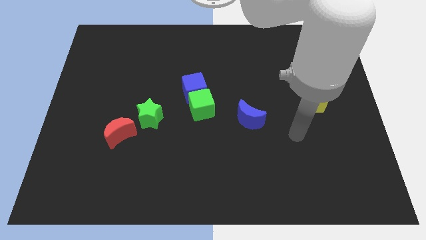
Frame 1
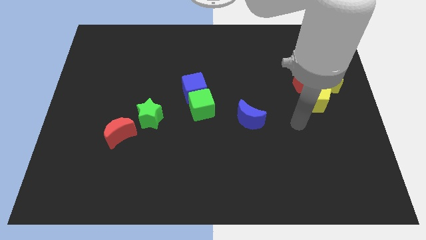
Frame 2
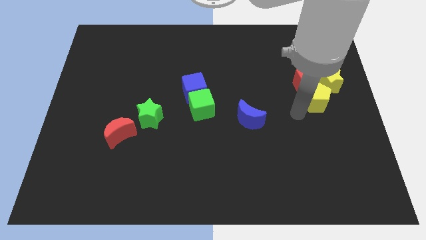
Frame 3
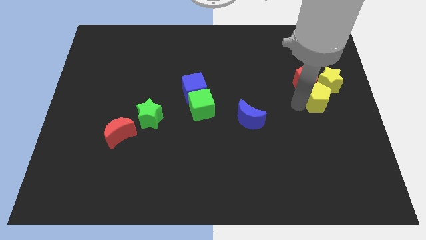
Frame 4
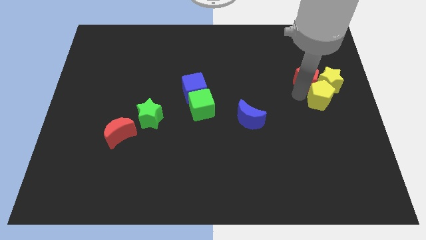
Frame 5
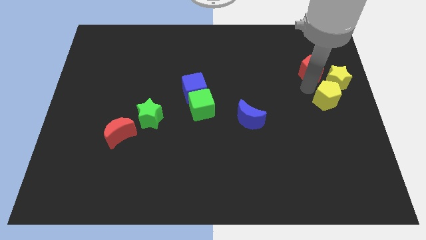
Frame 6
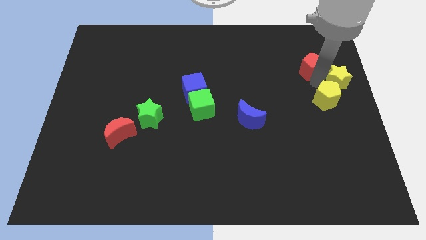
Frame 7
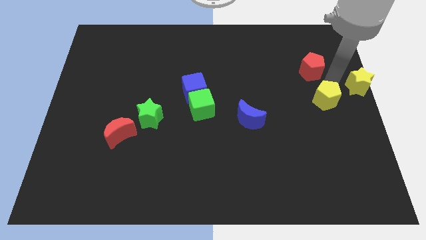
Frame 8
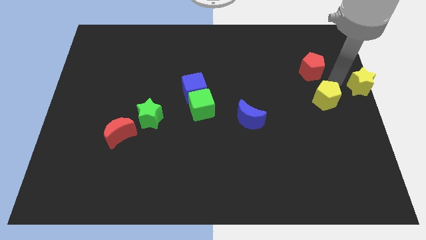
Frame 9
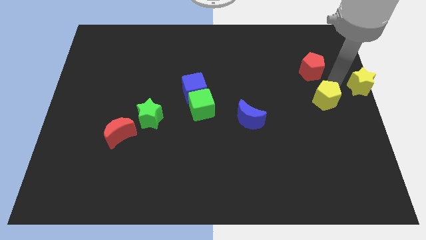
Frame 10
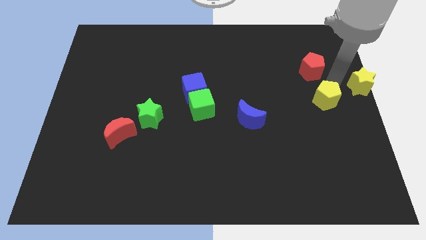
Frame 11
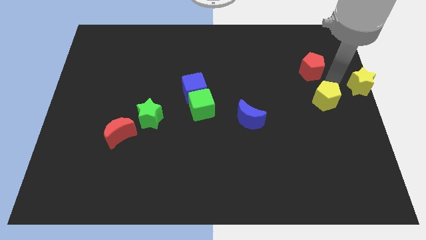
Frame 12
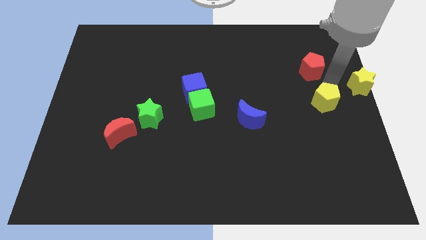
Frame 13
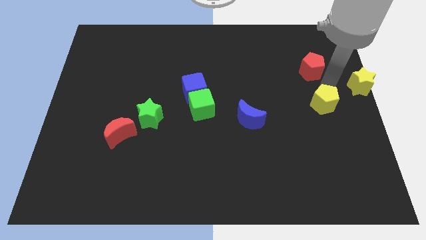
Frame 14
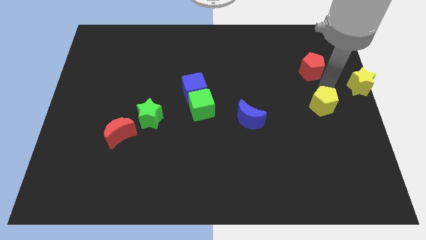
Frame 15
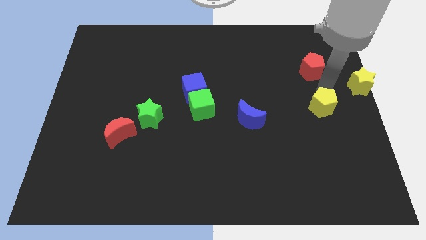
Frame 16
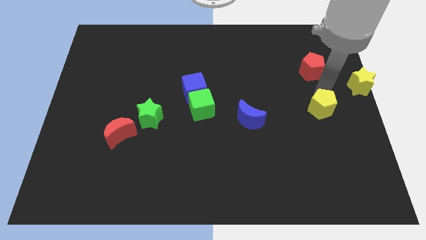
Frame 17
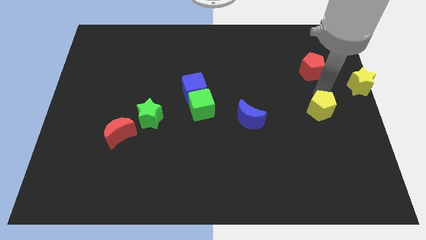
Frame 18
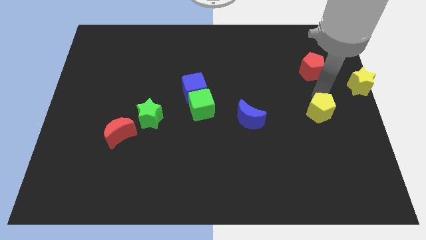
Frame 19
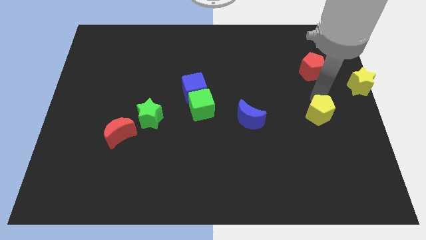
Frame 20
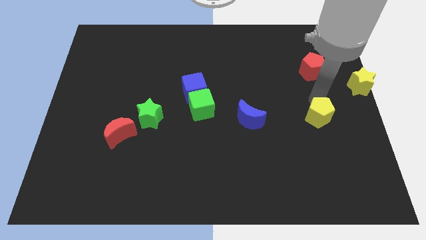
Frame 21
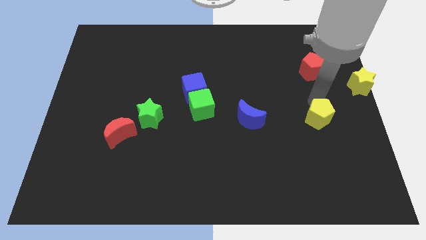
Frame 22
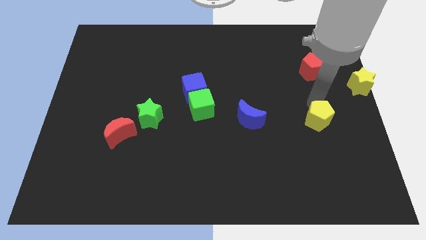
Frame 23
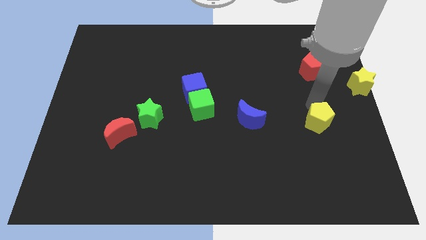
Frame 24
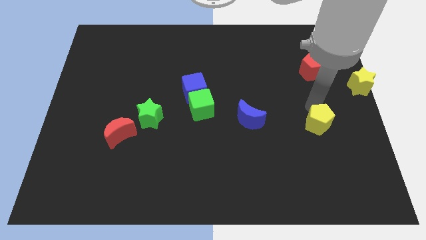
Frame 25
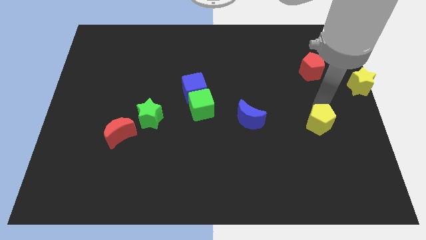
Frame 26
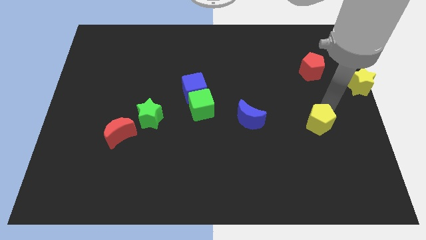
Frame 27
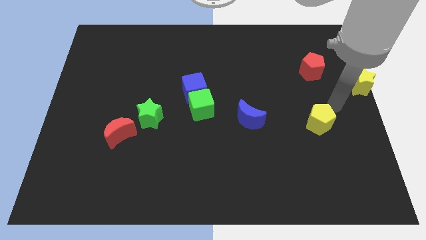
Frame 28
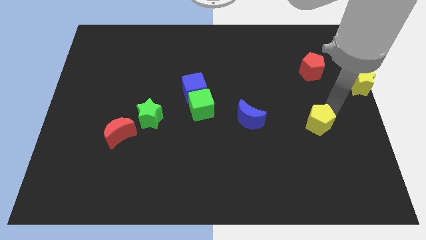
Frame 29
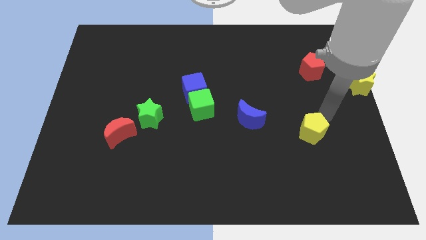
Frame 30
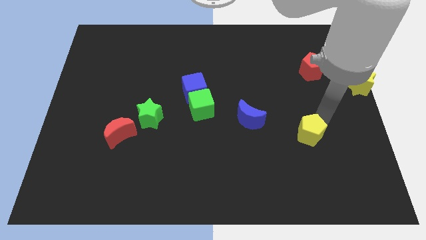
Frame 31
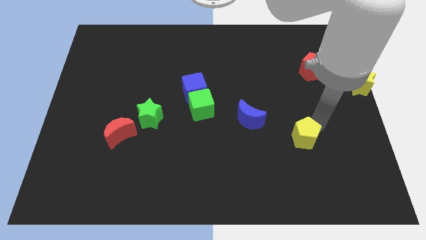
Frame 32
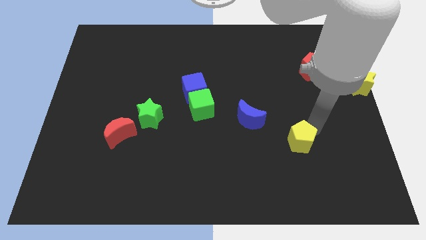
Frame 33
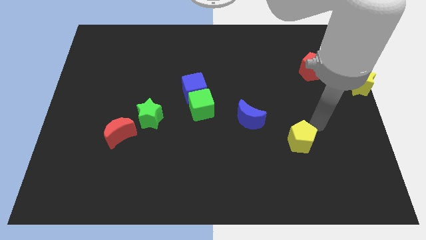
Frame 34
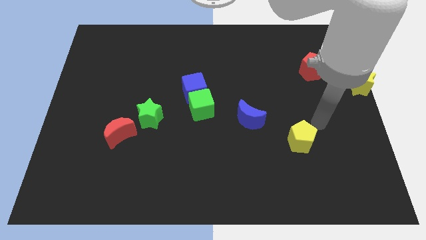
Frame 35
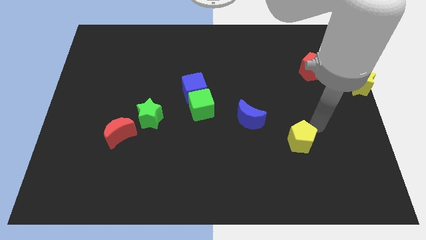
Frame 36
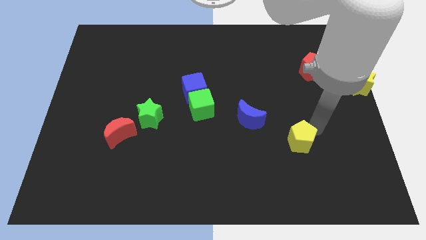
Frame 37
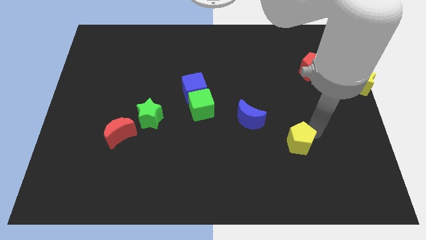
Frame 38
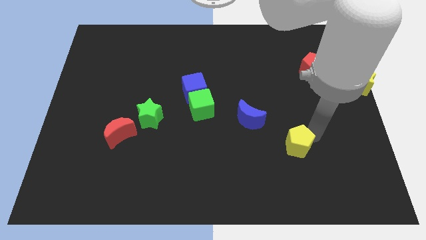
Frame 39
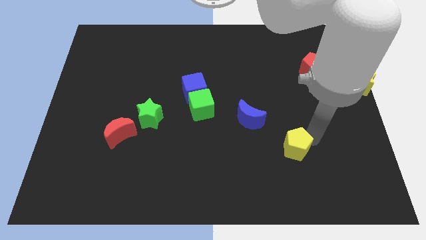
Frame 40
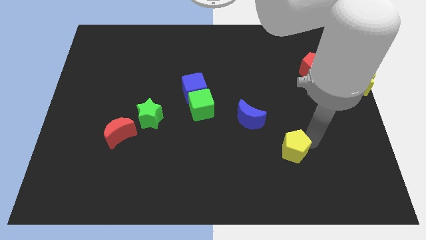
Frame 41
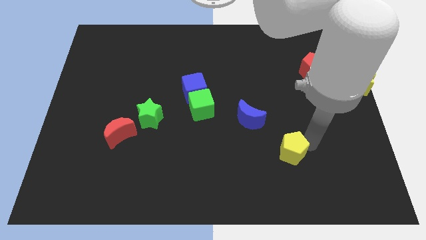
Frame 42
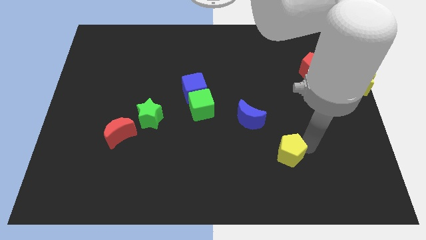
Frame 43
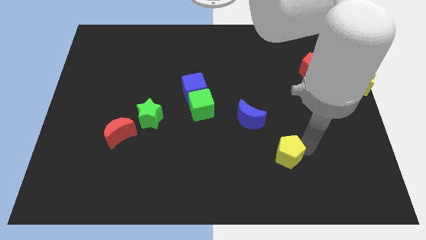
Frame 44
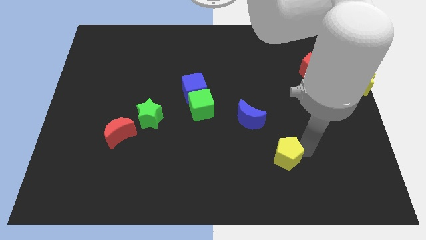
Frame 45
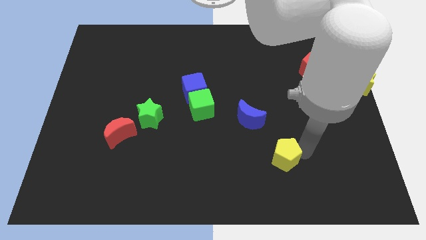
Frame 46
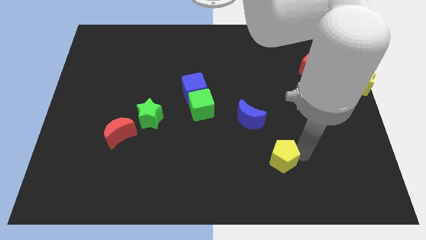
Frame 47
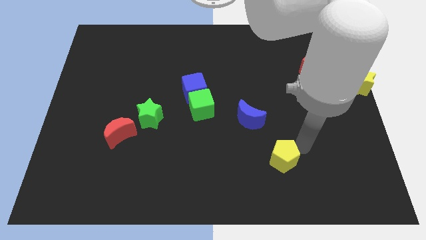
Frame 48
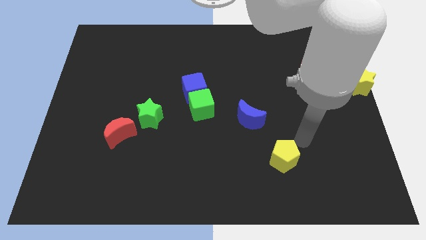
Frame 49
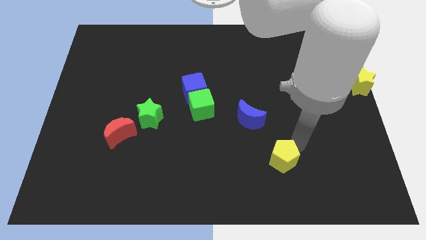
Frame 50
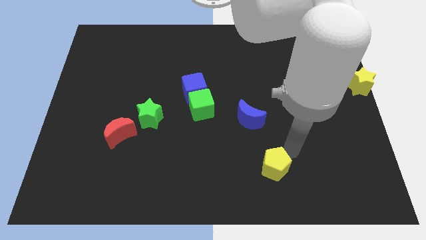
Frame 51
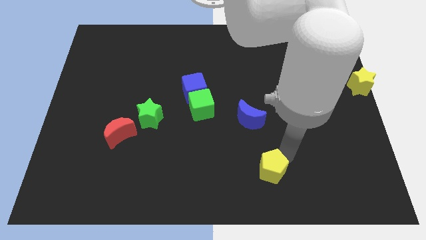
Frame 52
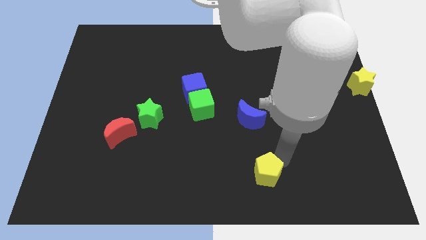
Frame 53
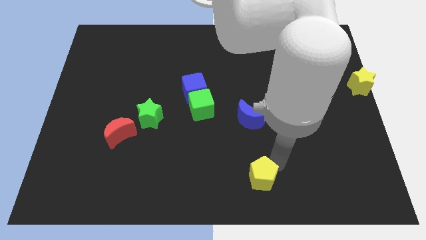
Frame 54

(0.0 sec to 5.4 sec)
slide the yellow pentagon to the bottom side
